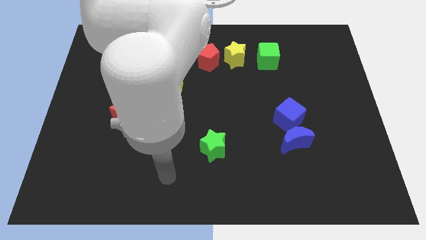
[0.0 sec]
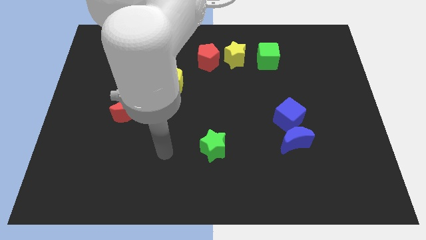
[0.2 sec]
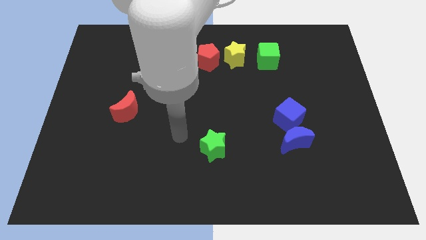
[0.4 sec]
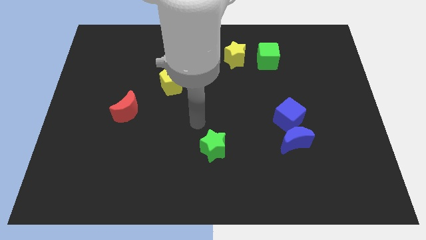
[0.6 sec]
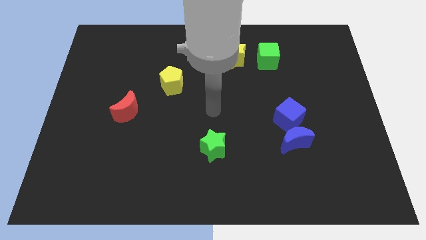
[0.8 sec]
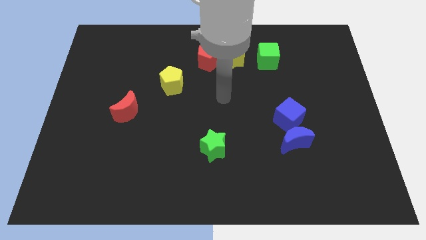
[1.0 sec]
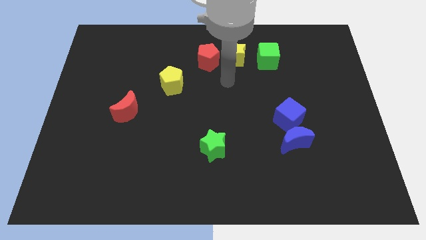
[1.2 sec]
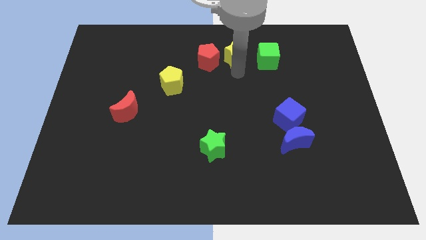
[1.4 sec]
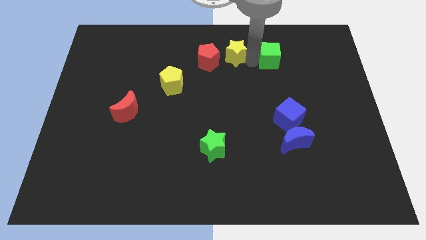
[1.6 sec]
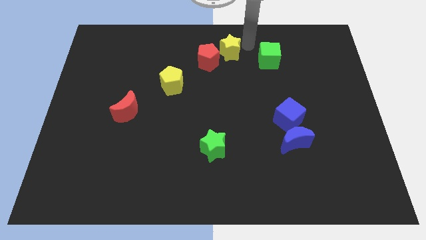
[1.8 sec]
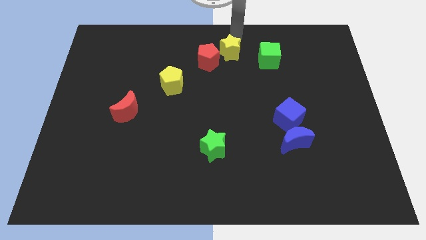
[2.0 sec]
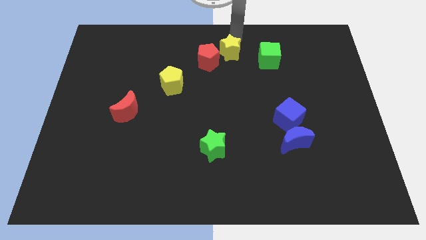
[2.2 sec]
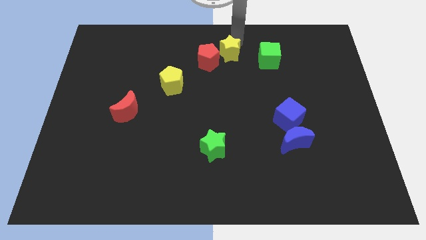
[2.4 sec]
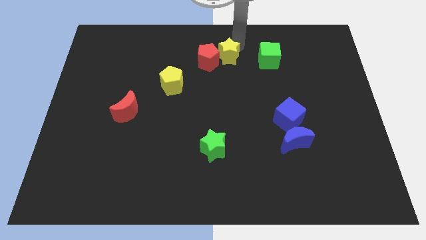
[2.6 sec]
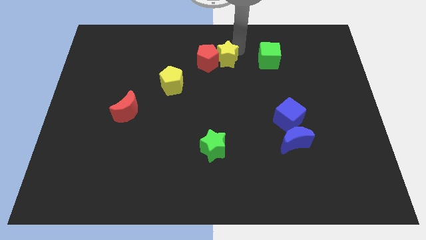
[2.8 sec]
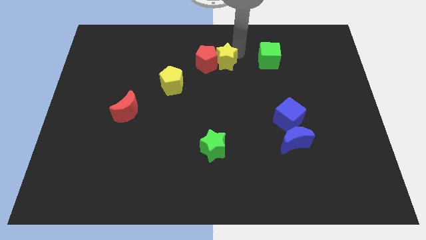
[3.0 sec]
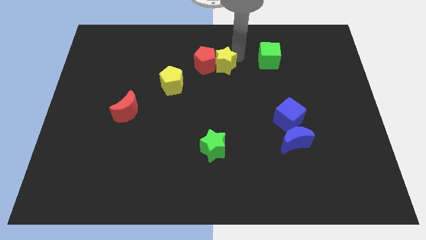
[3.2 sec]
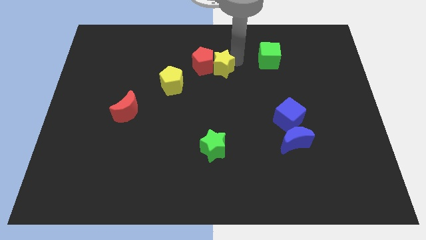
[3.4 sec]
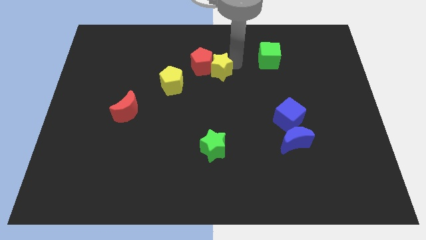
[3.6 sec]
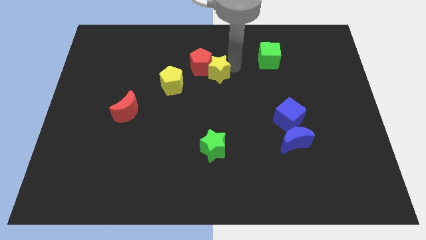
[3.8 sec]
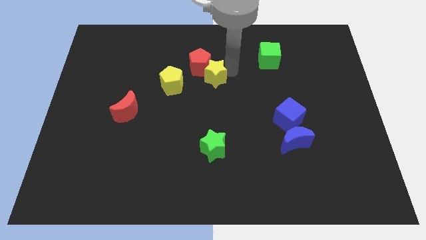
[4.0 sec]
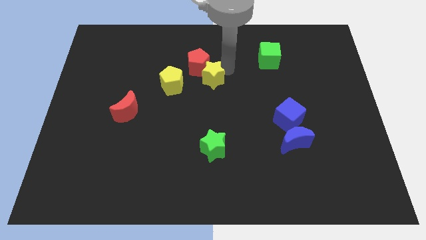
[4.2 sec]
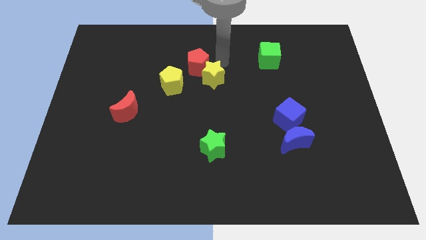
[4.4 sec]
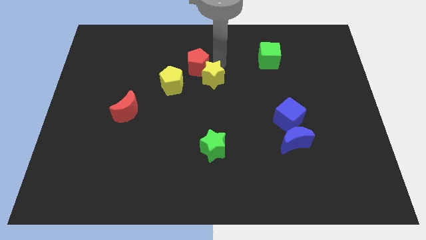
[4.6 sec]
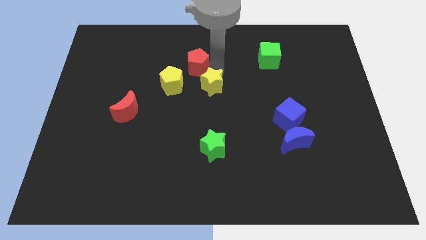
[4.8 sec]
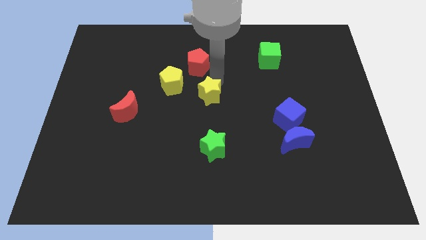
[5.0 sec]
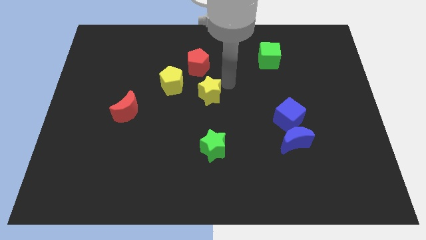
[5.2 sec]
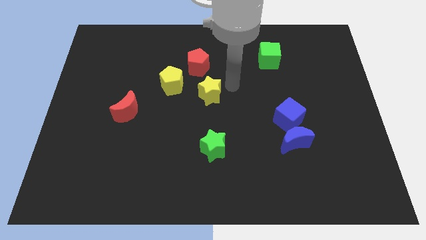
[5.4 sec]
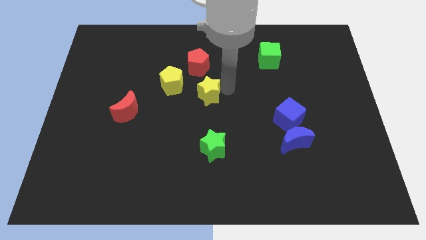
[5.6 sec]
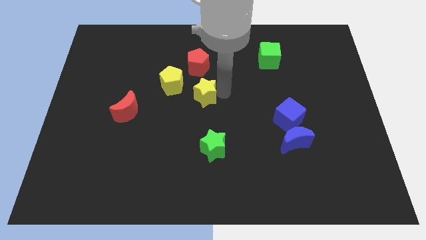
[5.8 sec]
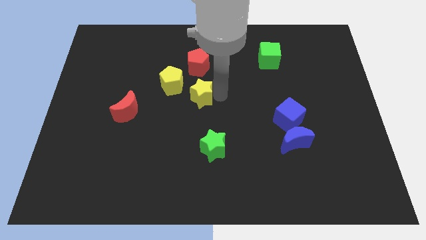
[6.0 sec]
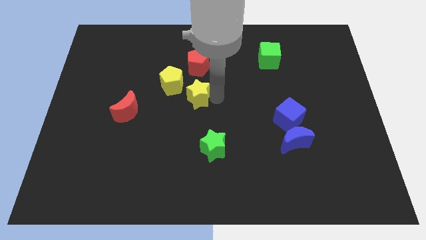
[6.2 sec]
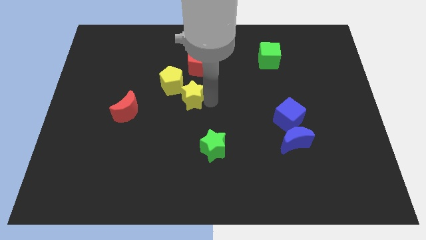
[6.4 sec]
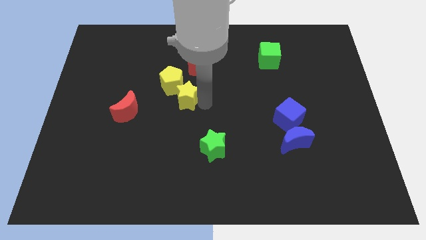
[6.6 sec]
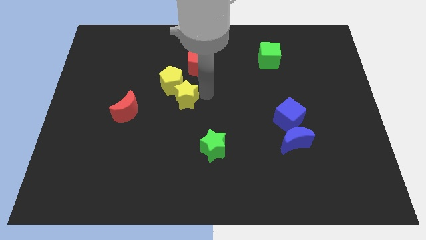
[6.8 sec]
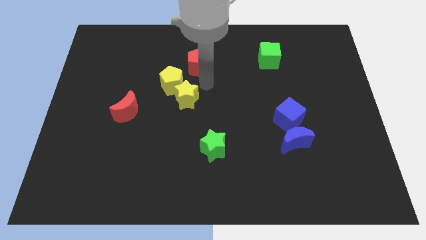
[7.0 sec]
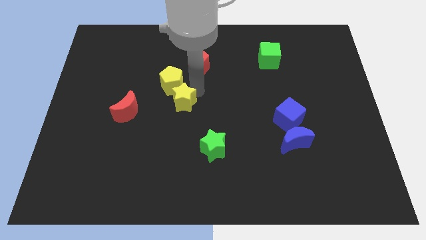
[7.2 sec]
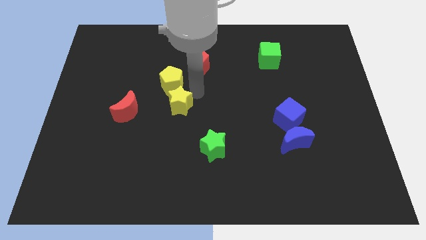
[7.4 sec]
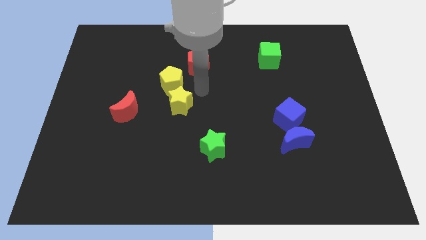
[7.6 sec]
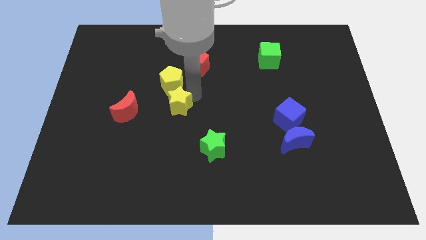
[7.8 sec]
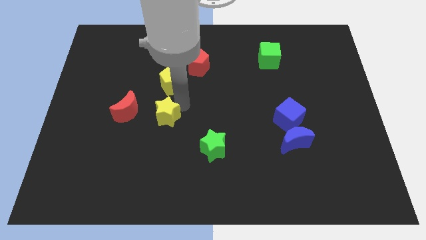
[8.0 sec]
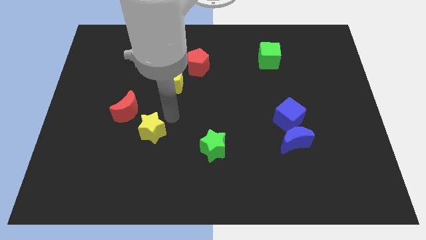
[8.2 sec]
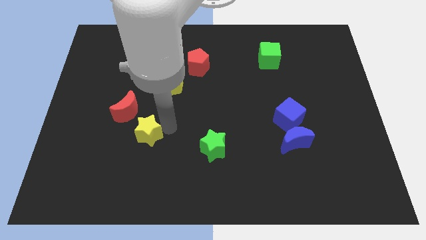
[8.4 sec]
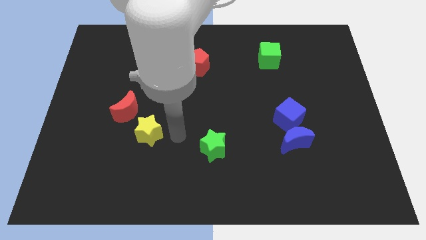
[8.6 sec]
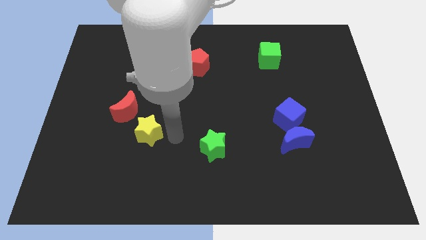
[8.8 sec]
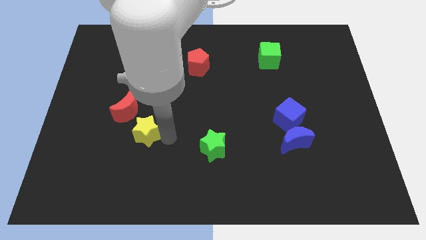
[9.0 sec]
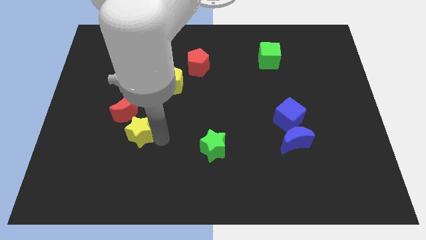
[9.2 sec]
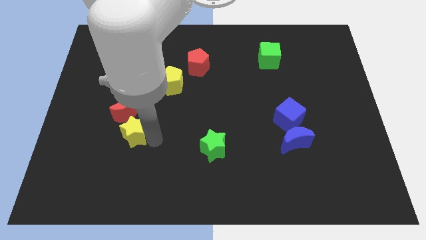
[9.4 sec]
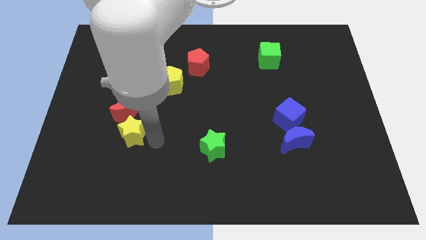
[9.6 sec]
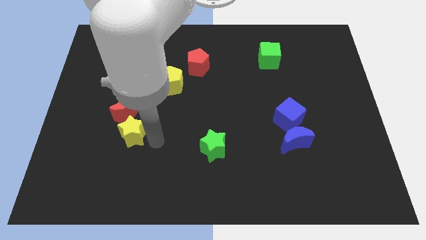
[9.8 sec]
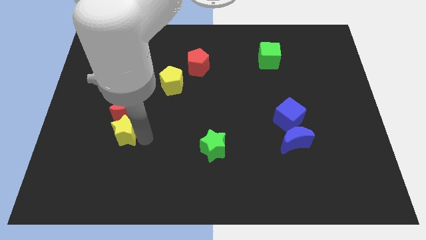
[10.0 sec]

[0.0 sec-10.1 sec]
put the yellow star diagonally down and to the left of the red moon

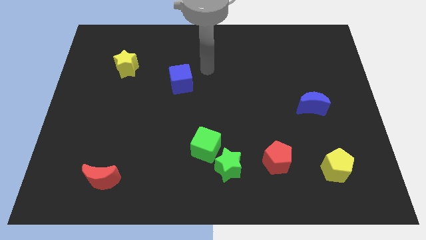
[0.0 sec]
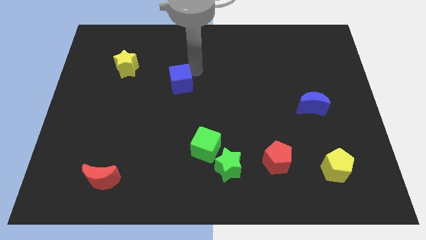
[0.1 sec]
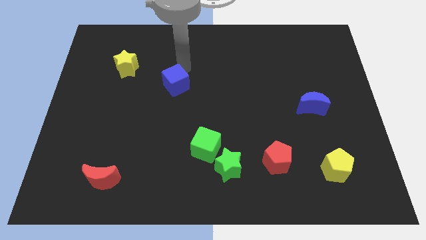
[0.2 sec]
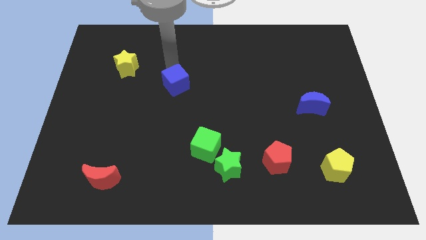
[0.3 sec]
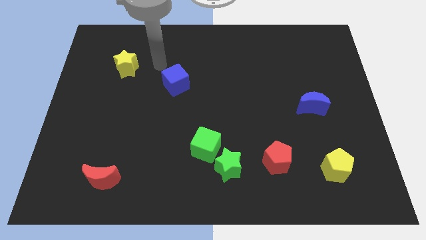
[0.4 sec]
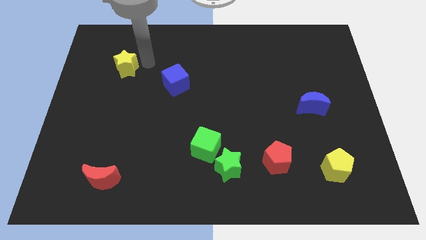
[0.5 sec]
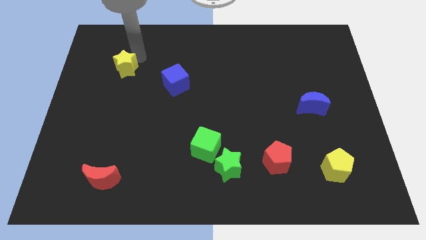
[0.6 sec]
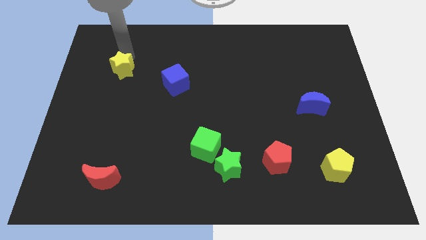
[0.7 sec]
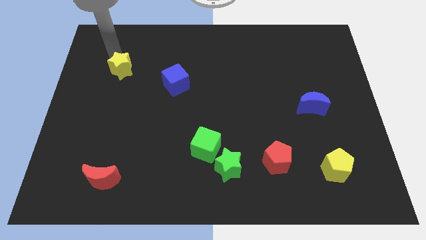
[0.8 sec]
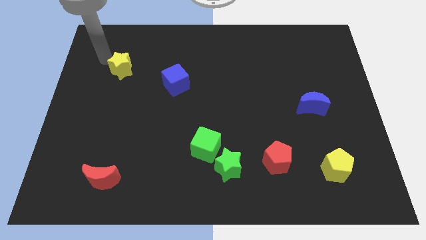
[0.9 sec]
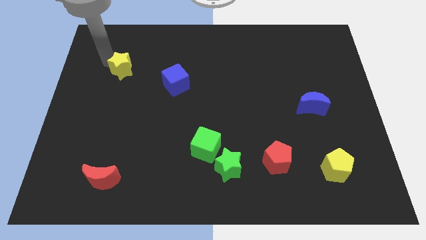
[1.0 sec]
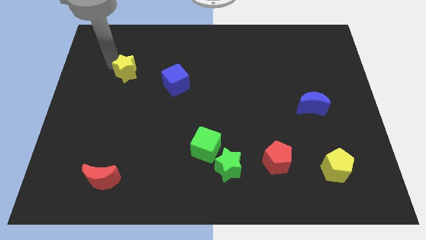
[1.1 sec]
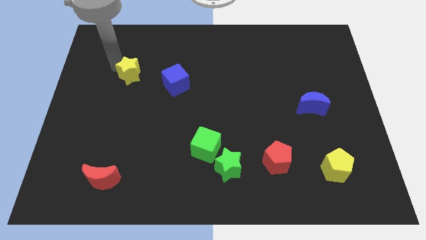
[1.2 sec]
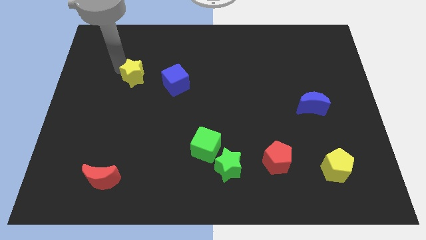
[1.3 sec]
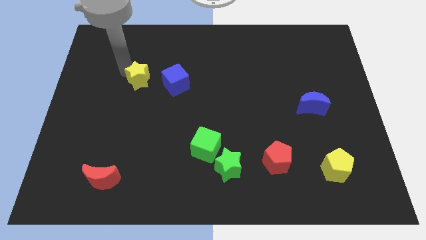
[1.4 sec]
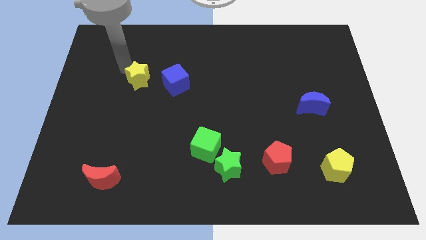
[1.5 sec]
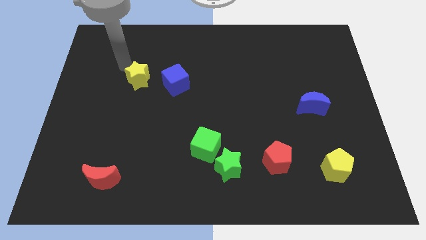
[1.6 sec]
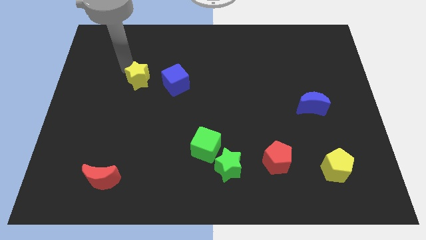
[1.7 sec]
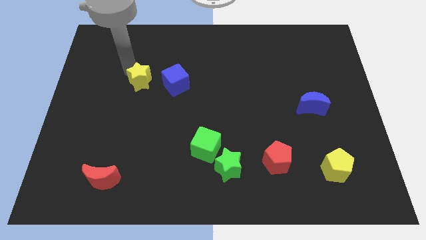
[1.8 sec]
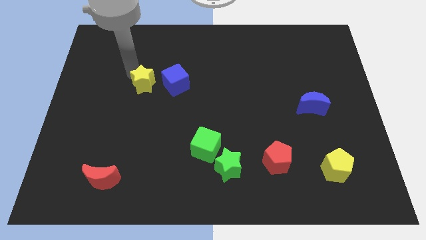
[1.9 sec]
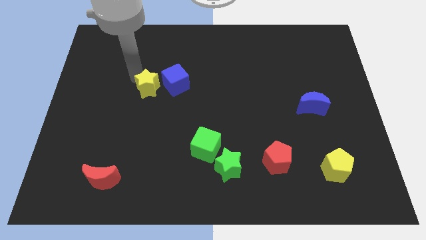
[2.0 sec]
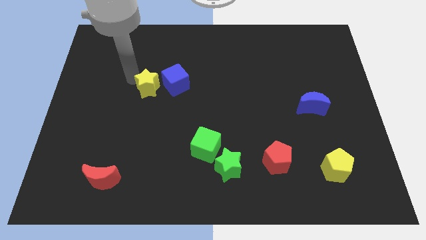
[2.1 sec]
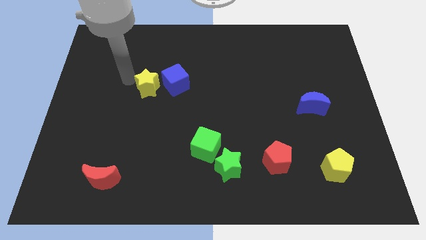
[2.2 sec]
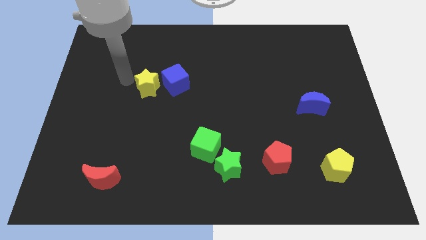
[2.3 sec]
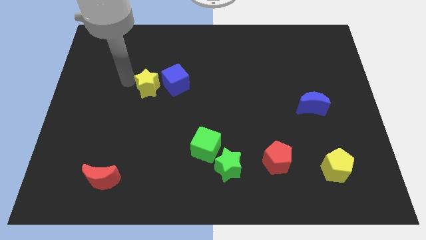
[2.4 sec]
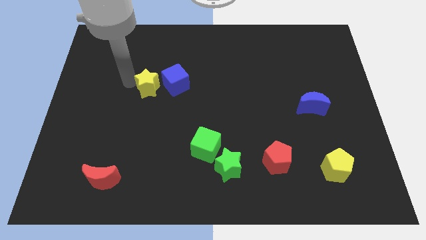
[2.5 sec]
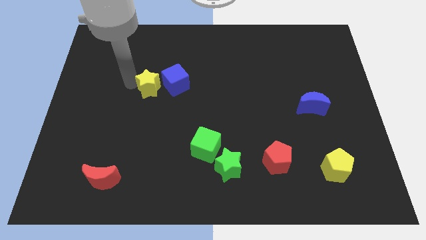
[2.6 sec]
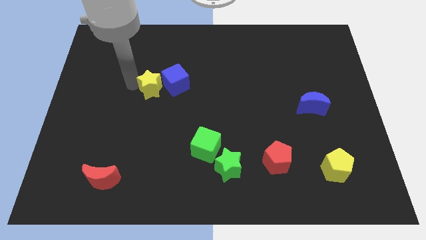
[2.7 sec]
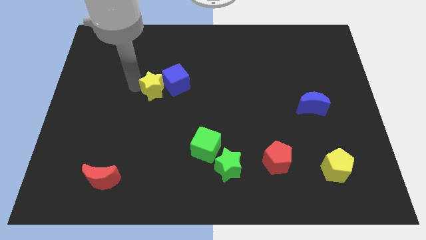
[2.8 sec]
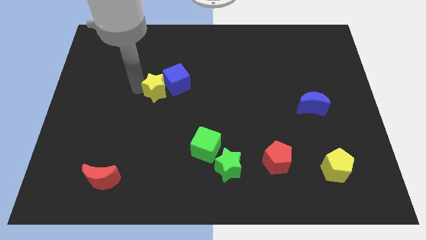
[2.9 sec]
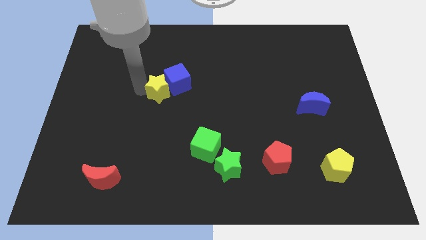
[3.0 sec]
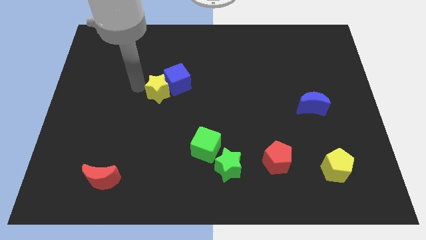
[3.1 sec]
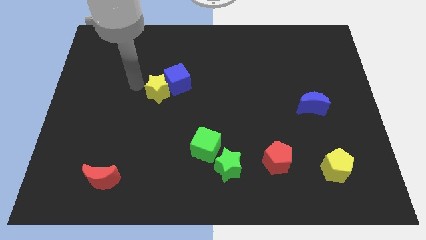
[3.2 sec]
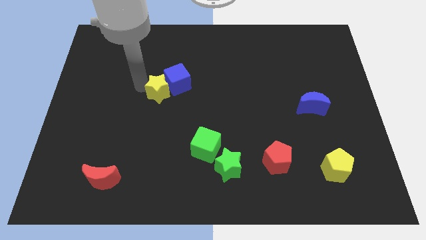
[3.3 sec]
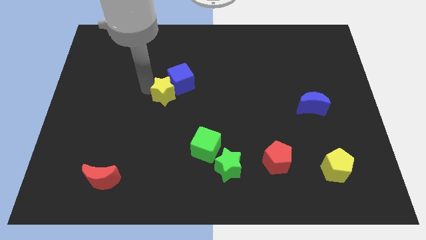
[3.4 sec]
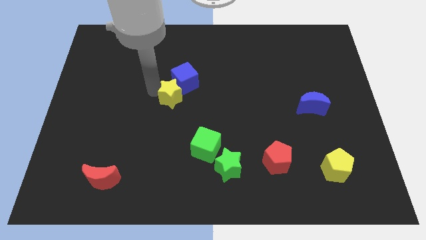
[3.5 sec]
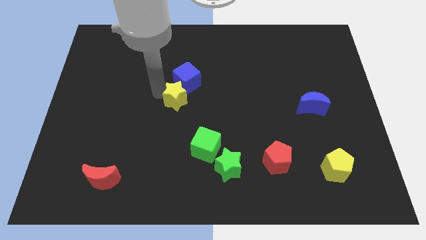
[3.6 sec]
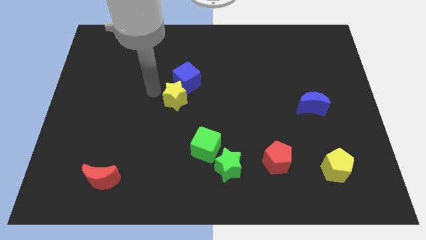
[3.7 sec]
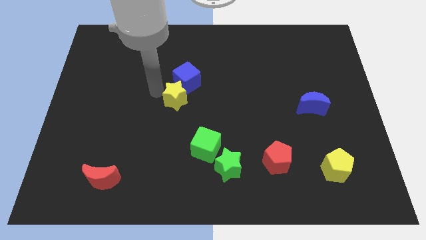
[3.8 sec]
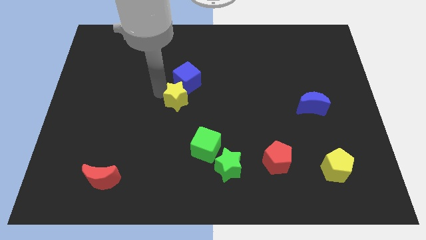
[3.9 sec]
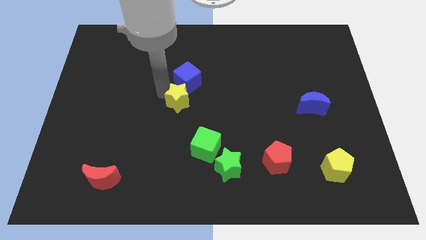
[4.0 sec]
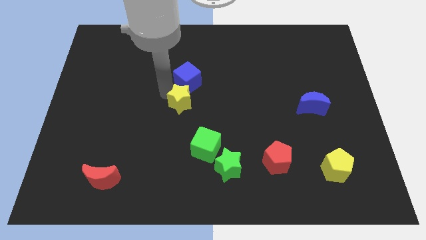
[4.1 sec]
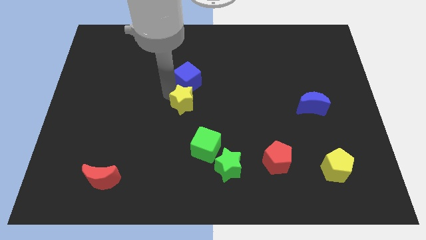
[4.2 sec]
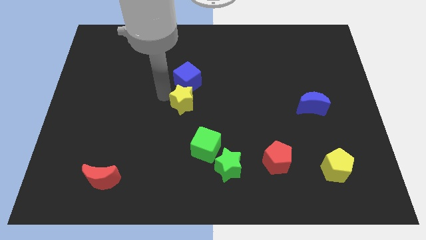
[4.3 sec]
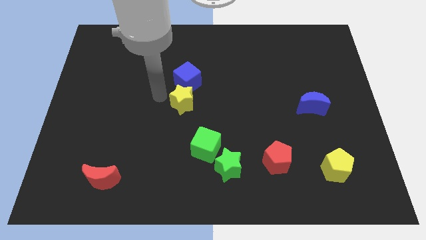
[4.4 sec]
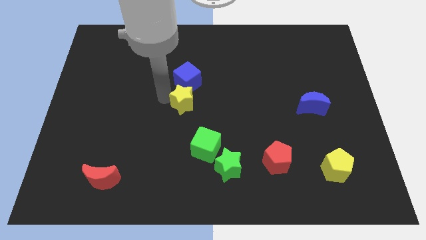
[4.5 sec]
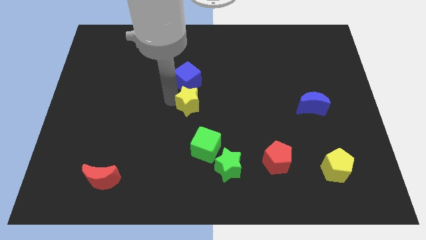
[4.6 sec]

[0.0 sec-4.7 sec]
slide the yellow star to the top side of the green cube
